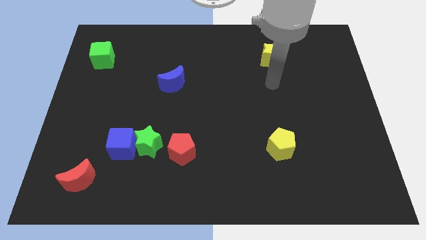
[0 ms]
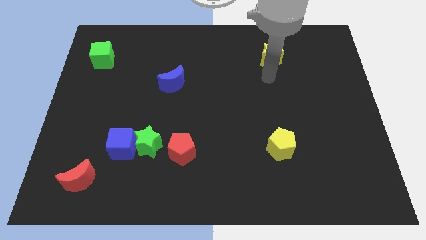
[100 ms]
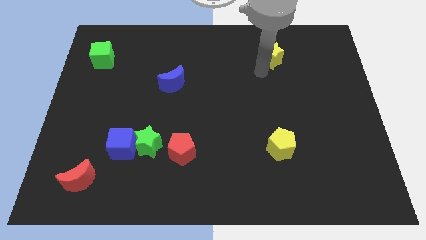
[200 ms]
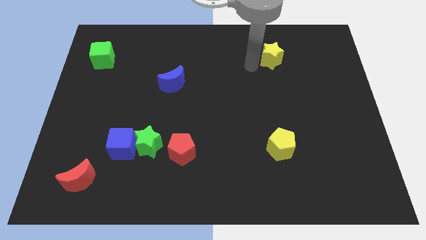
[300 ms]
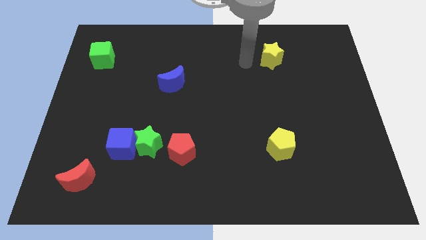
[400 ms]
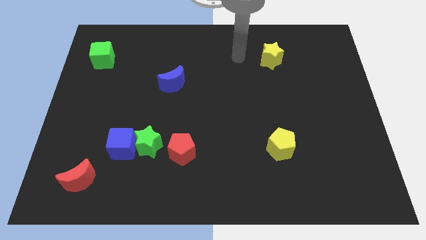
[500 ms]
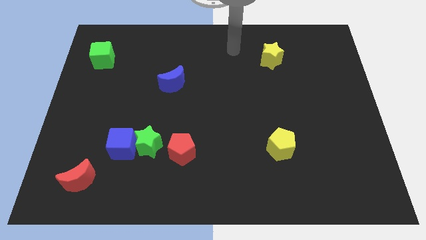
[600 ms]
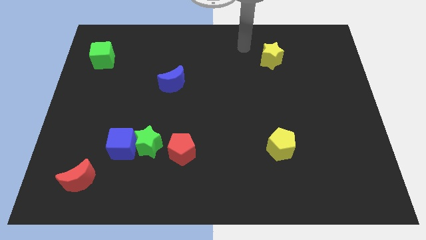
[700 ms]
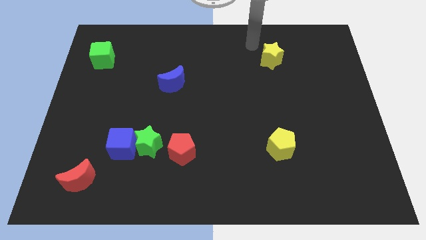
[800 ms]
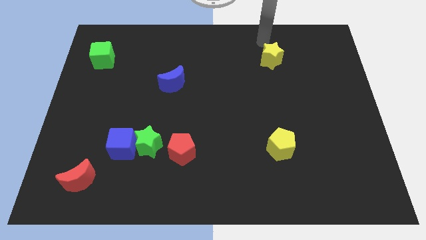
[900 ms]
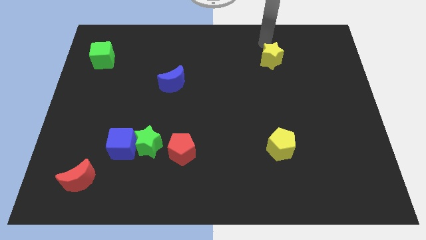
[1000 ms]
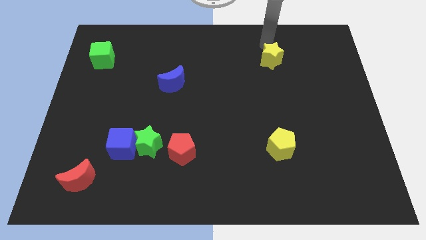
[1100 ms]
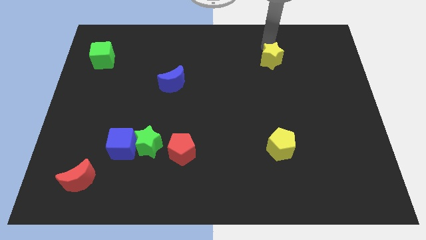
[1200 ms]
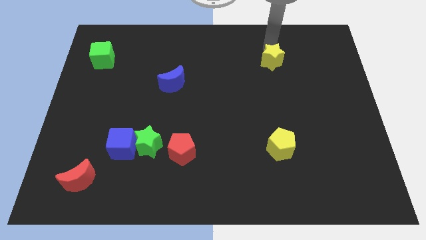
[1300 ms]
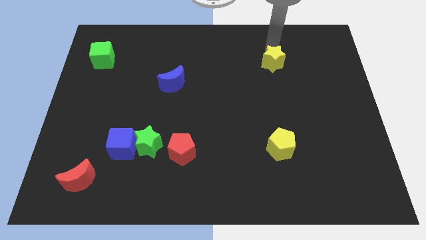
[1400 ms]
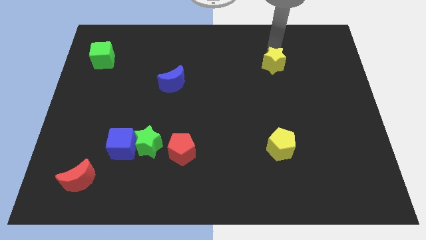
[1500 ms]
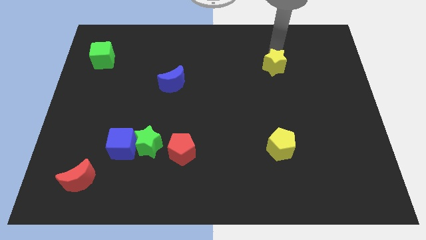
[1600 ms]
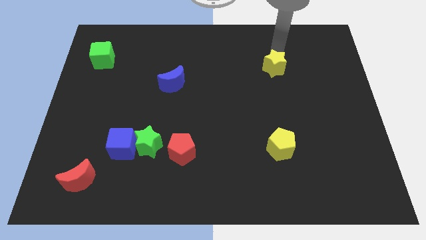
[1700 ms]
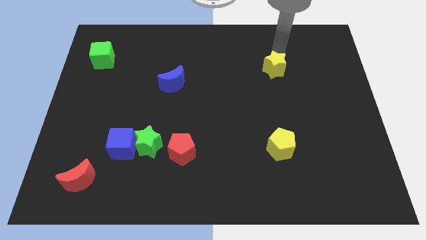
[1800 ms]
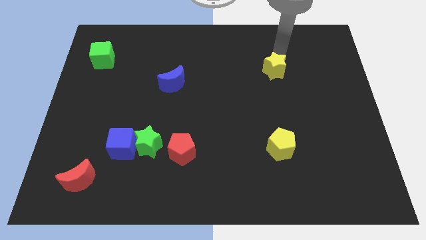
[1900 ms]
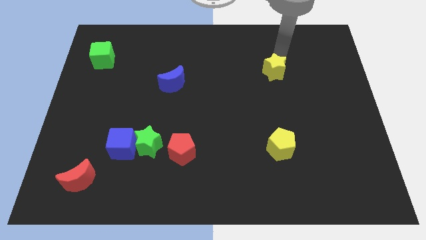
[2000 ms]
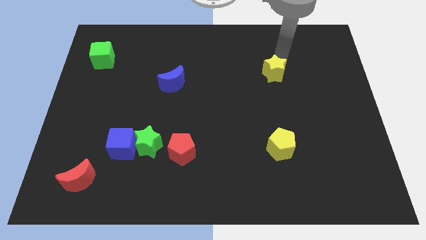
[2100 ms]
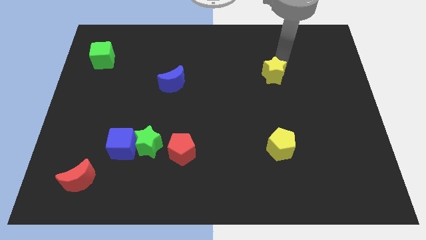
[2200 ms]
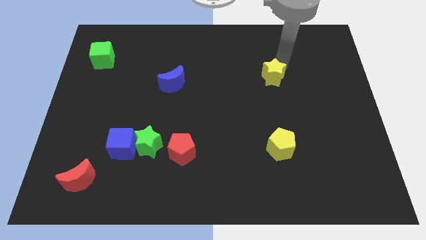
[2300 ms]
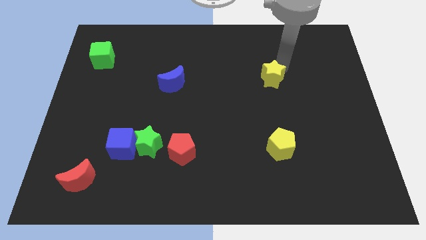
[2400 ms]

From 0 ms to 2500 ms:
push the yellow star down a bit

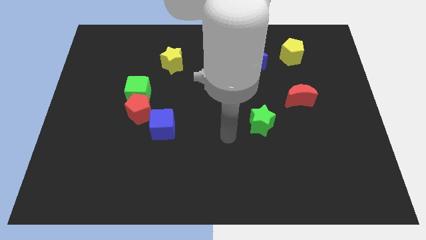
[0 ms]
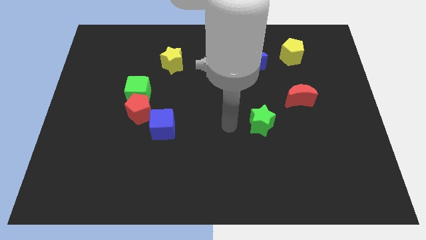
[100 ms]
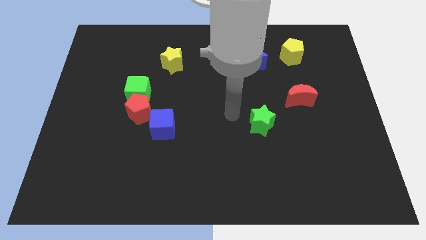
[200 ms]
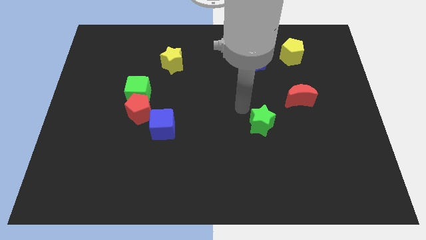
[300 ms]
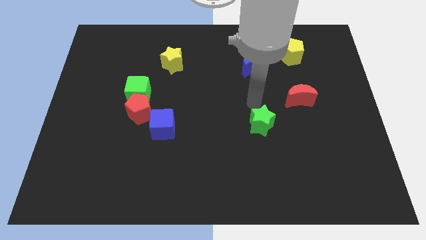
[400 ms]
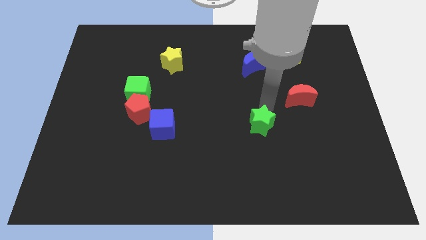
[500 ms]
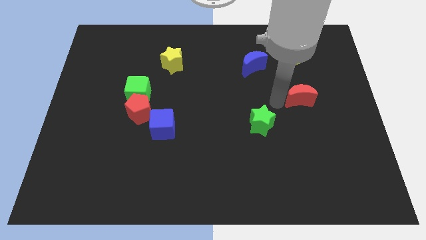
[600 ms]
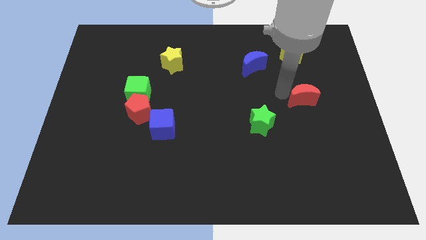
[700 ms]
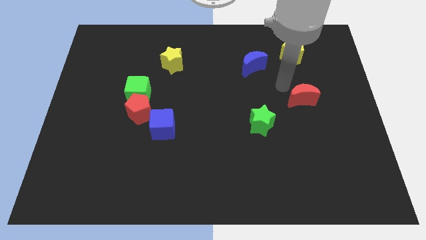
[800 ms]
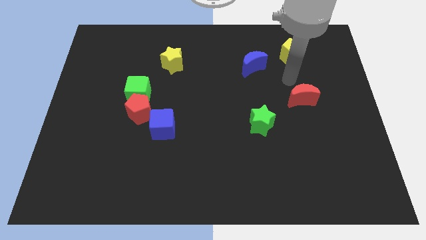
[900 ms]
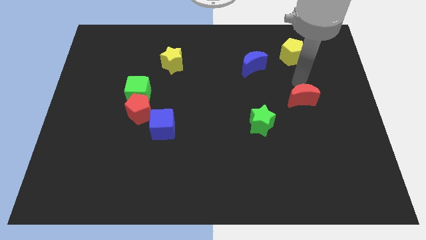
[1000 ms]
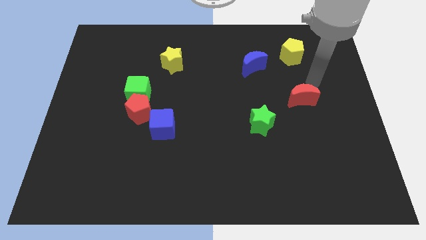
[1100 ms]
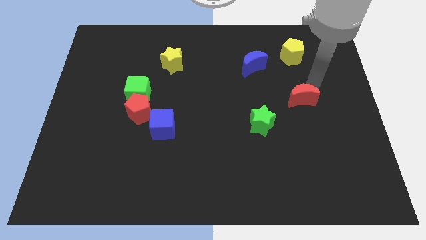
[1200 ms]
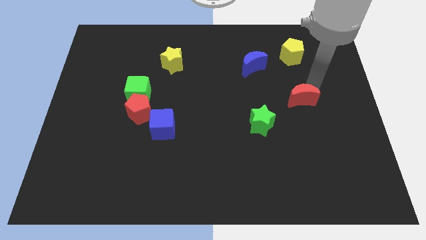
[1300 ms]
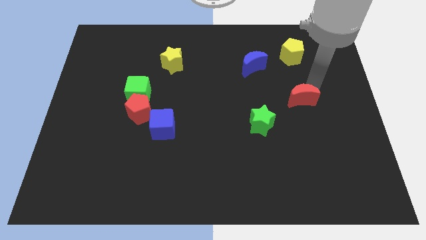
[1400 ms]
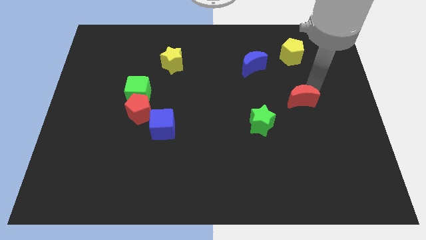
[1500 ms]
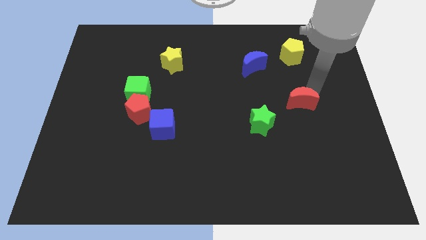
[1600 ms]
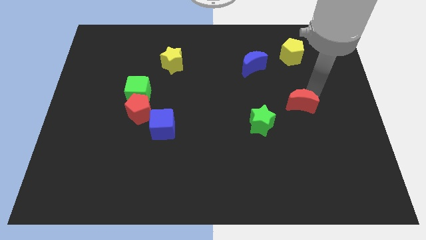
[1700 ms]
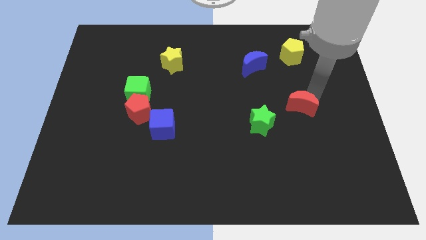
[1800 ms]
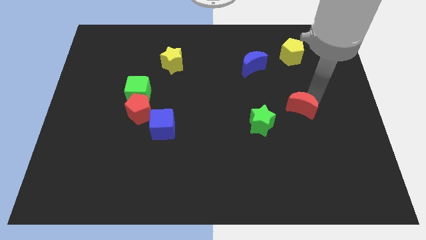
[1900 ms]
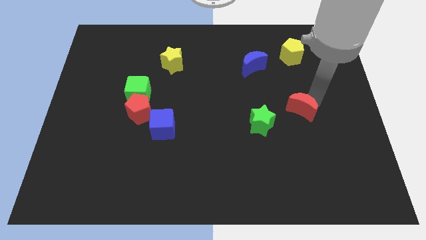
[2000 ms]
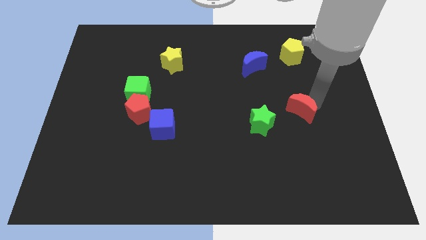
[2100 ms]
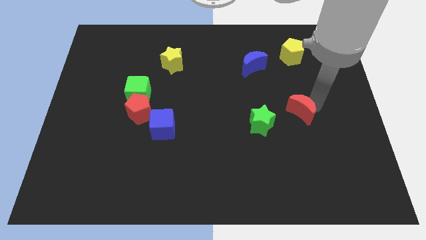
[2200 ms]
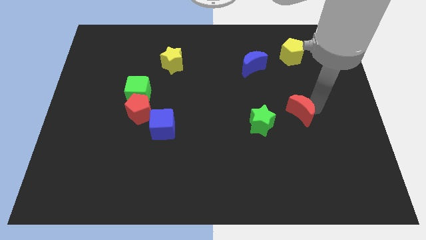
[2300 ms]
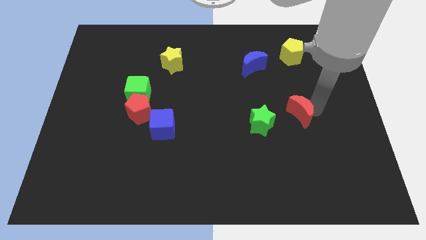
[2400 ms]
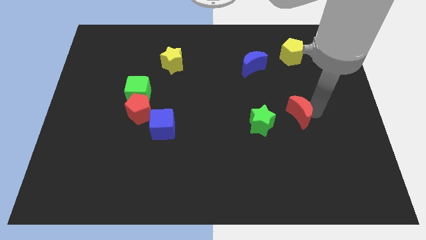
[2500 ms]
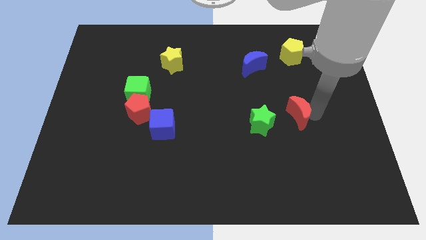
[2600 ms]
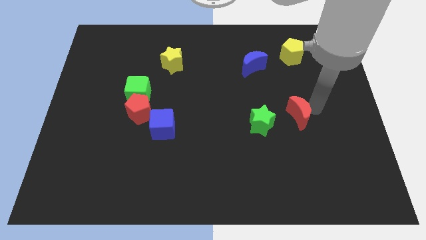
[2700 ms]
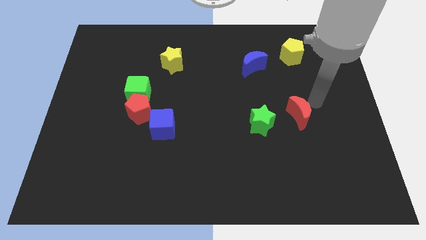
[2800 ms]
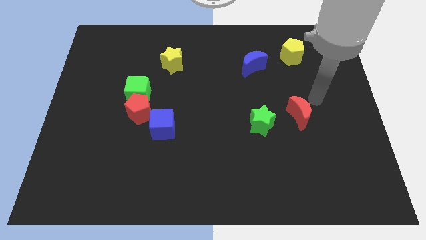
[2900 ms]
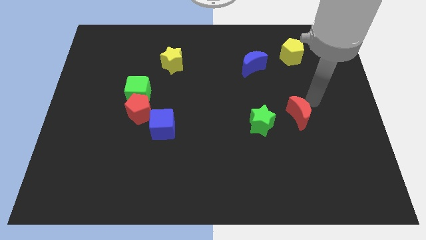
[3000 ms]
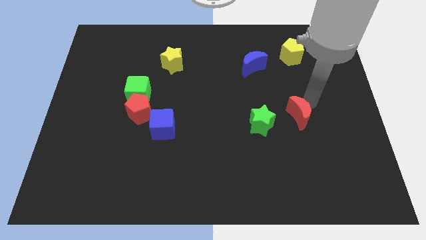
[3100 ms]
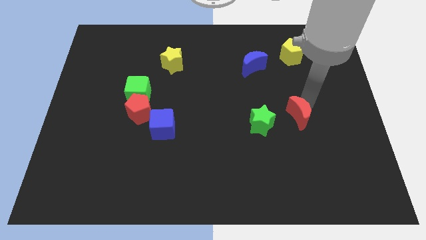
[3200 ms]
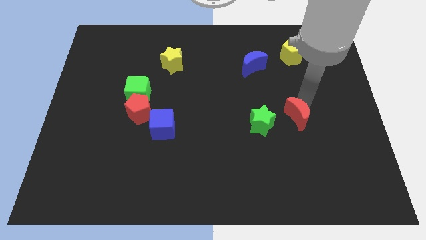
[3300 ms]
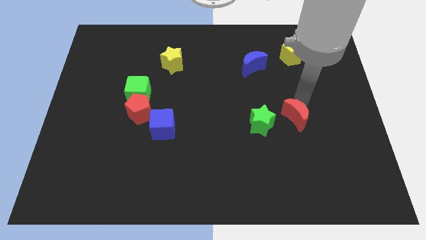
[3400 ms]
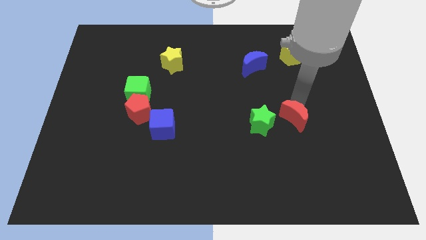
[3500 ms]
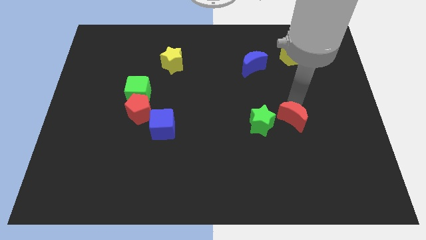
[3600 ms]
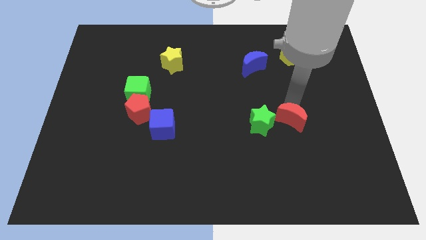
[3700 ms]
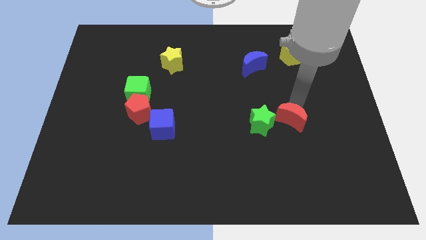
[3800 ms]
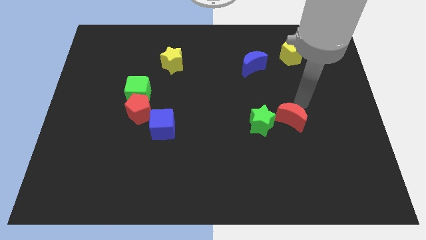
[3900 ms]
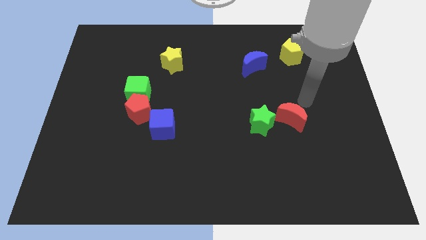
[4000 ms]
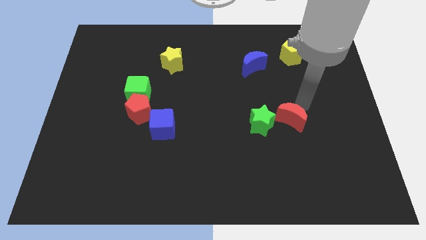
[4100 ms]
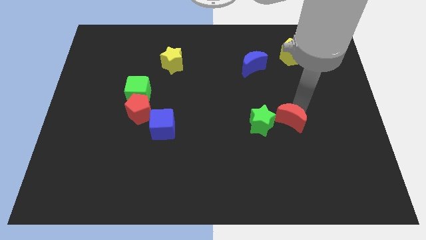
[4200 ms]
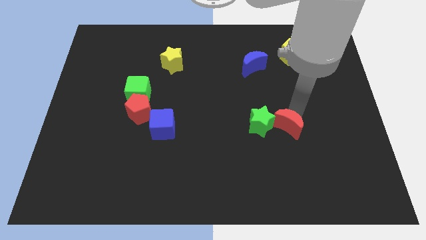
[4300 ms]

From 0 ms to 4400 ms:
slide the red moon downwards and then left a little bit

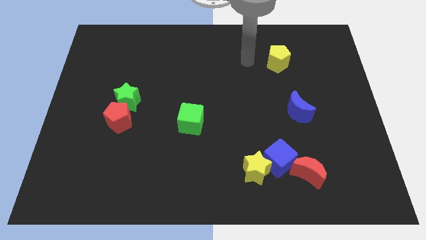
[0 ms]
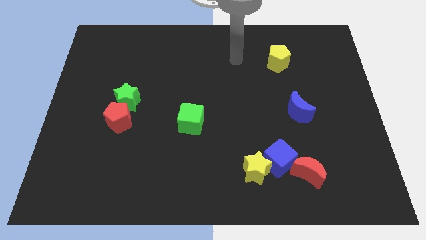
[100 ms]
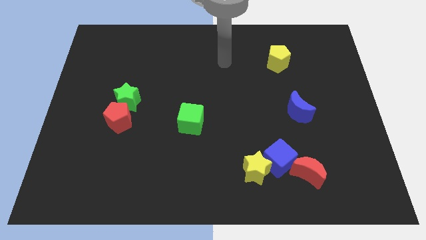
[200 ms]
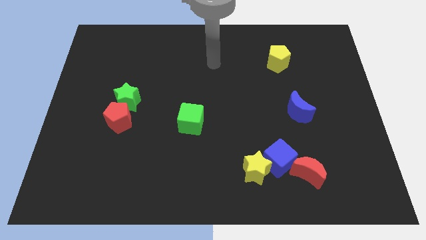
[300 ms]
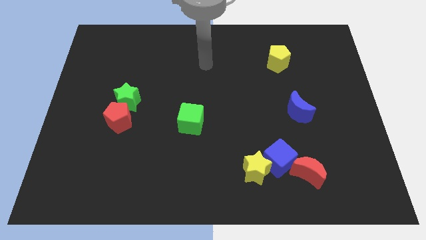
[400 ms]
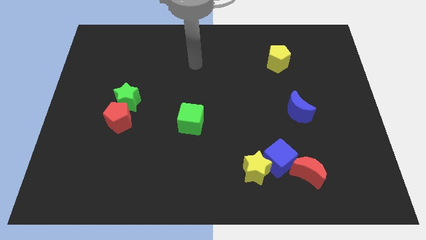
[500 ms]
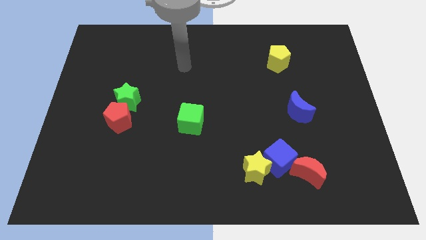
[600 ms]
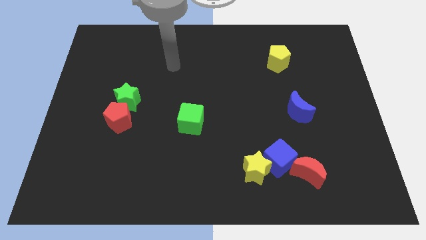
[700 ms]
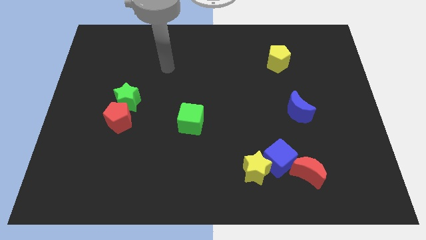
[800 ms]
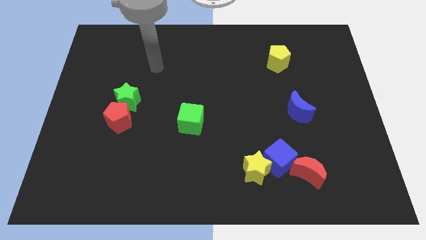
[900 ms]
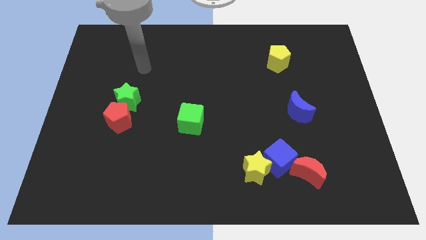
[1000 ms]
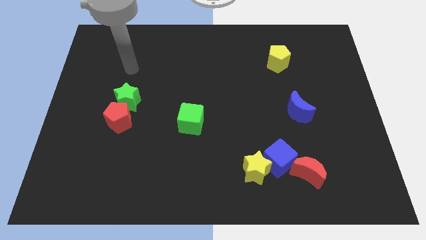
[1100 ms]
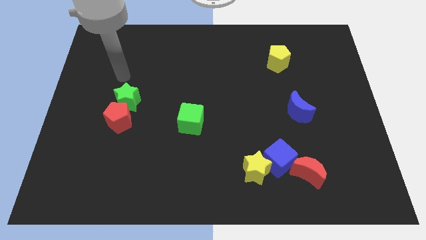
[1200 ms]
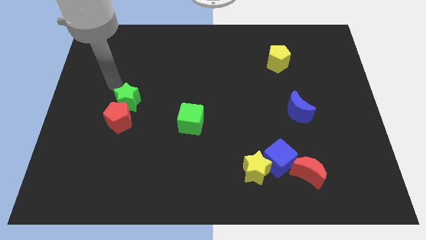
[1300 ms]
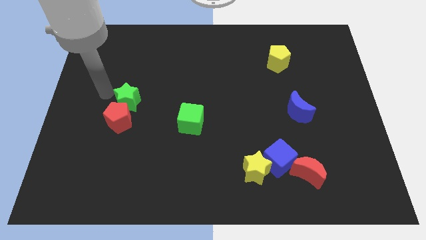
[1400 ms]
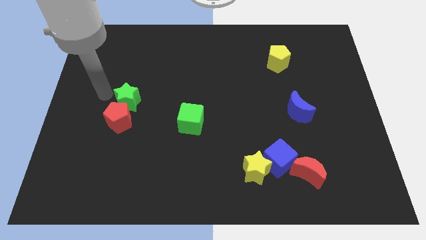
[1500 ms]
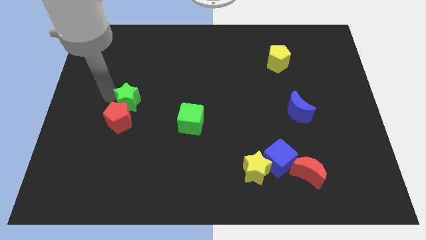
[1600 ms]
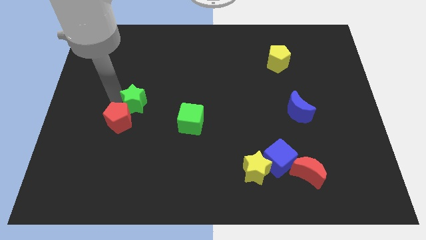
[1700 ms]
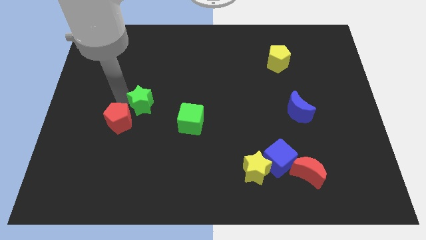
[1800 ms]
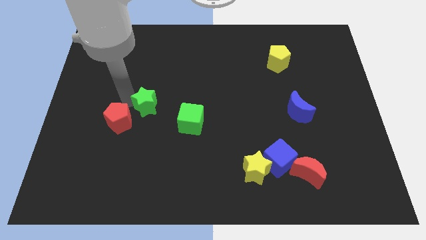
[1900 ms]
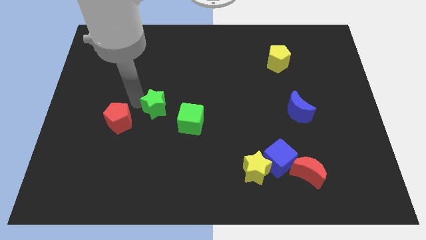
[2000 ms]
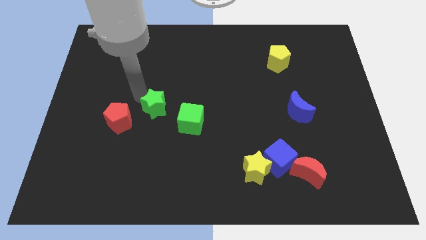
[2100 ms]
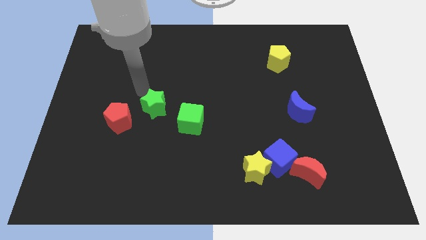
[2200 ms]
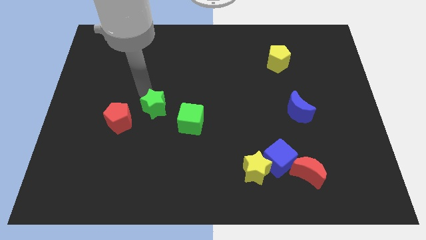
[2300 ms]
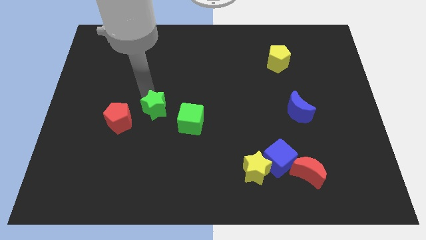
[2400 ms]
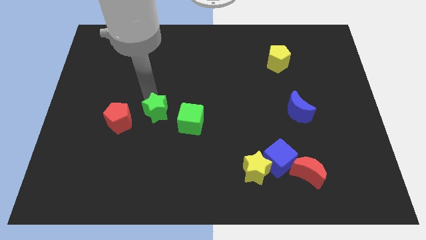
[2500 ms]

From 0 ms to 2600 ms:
slightly move the green star diagonally down and right
